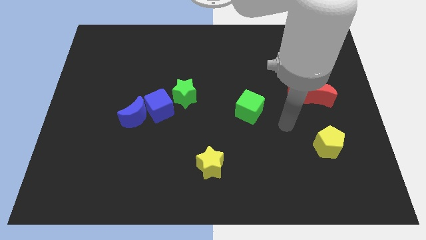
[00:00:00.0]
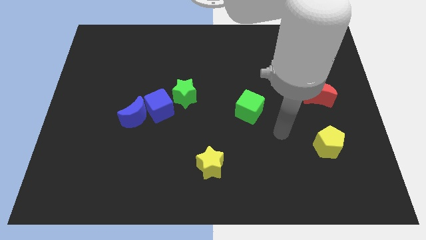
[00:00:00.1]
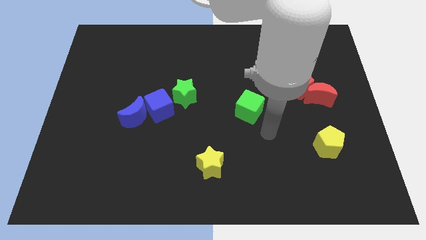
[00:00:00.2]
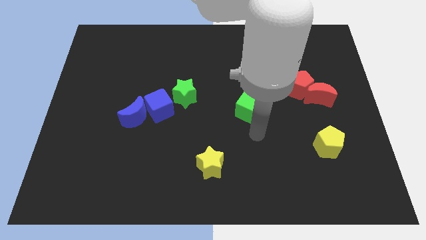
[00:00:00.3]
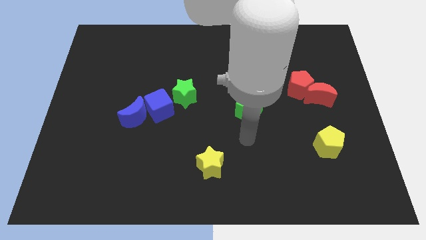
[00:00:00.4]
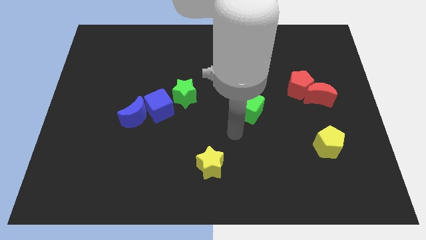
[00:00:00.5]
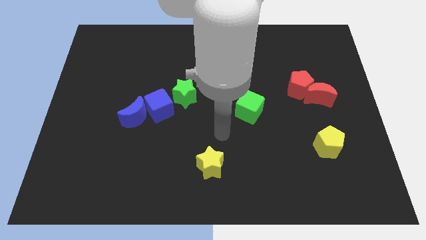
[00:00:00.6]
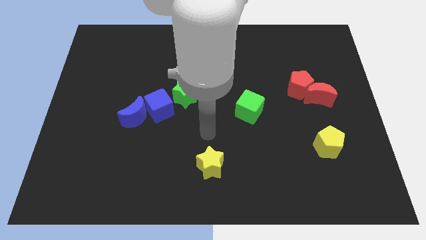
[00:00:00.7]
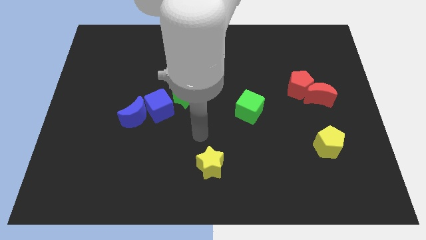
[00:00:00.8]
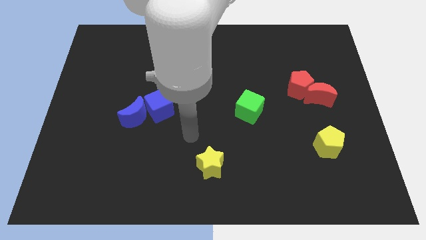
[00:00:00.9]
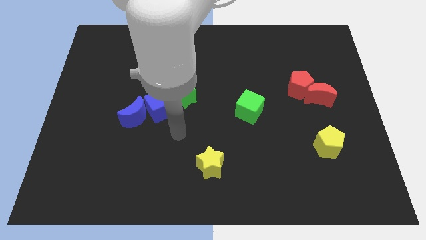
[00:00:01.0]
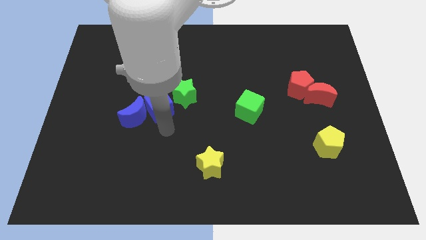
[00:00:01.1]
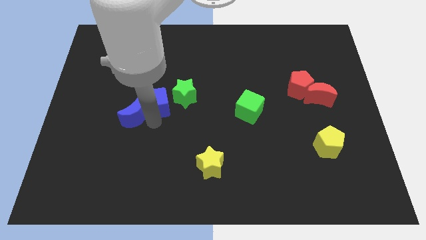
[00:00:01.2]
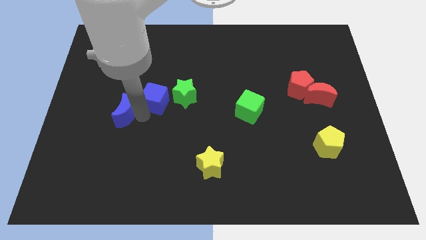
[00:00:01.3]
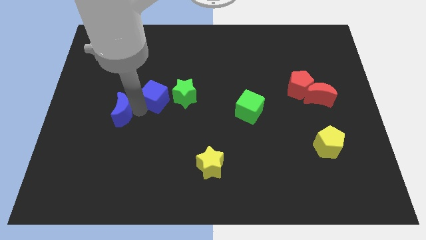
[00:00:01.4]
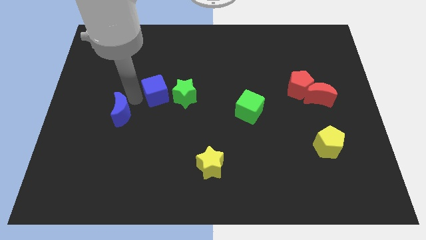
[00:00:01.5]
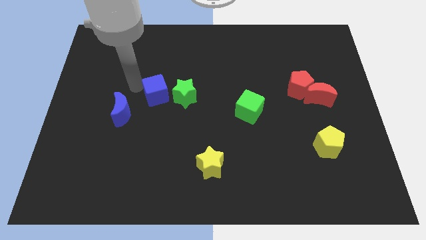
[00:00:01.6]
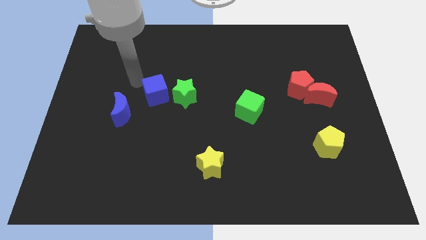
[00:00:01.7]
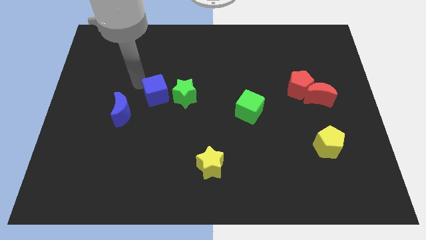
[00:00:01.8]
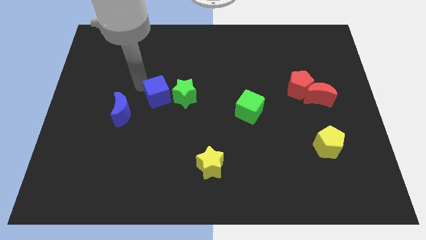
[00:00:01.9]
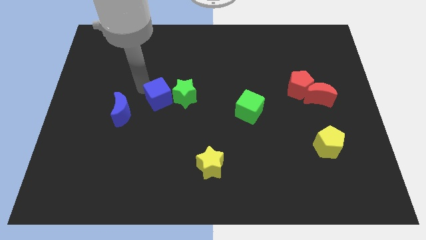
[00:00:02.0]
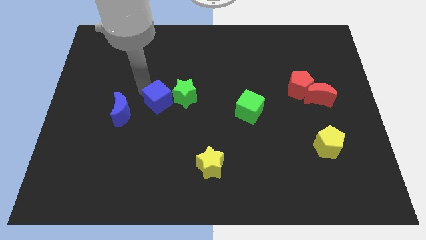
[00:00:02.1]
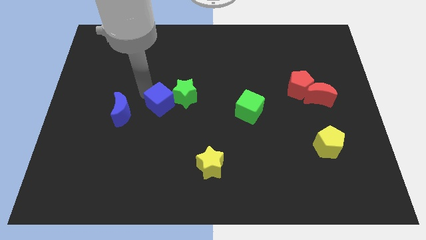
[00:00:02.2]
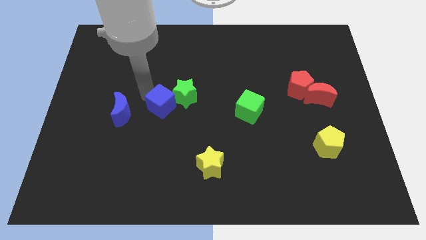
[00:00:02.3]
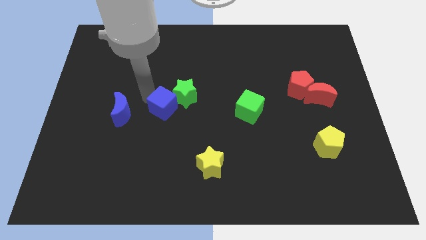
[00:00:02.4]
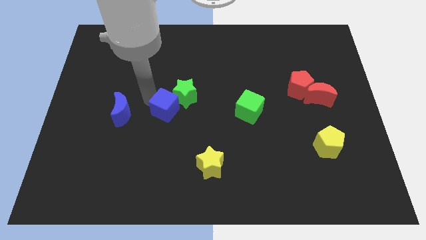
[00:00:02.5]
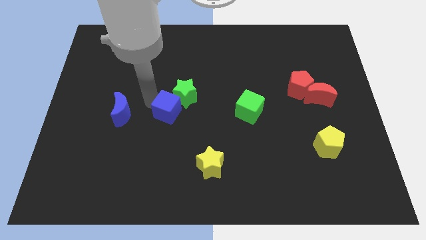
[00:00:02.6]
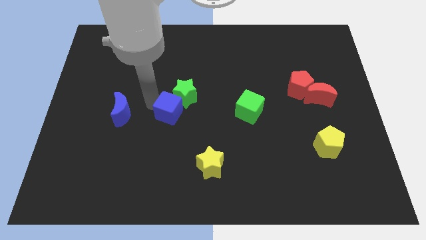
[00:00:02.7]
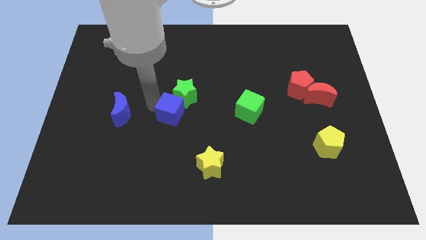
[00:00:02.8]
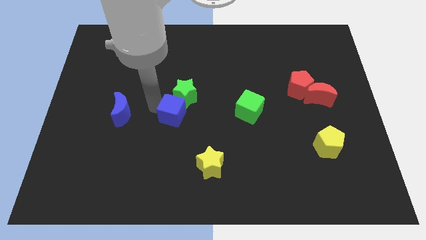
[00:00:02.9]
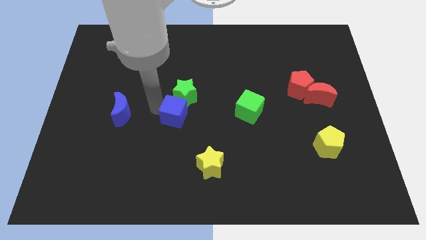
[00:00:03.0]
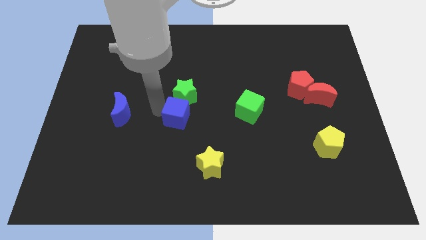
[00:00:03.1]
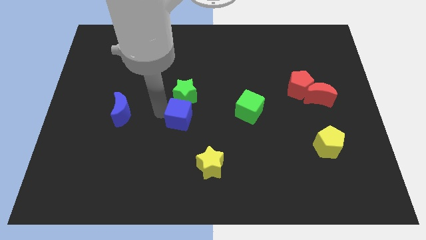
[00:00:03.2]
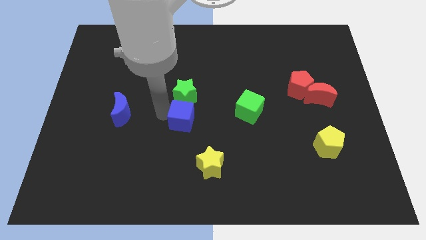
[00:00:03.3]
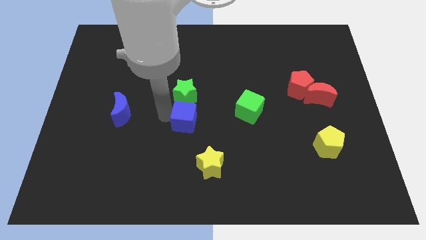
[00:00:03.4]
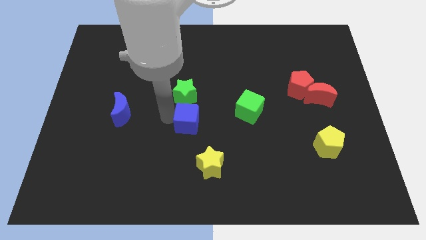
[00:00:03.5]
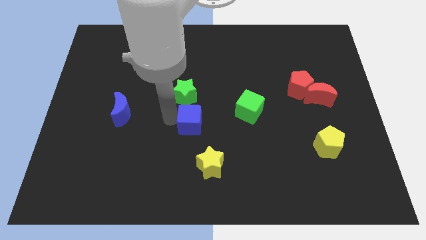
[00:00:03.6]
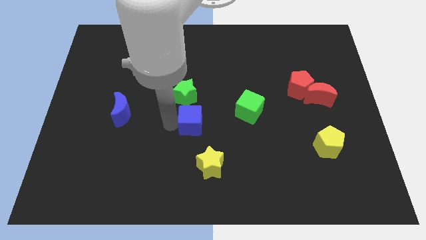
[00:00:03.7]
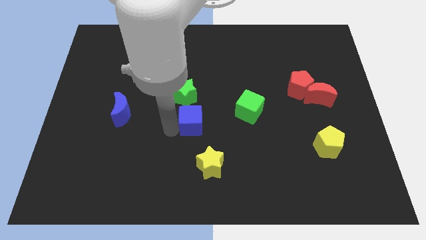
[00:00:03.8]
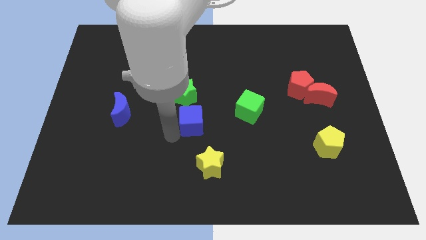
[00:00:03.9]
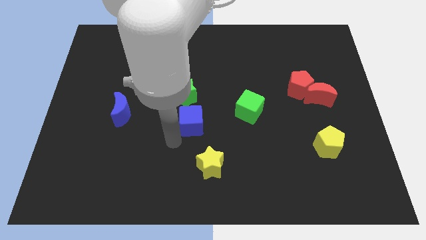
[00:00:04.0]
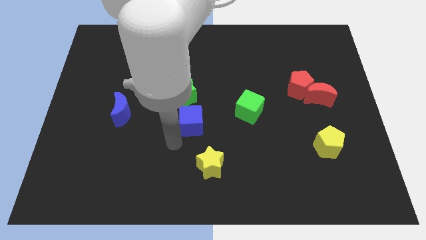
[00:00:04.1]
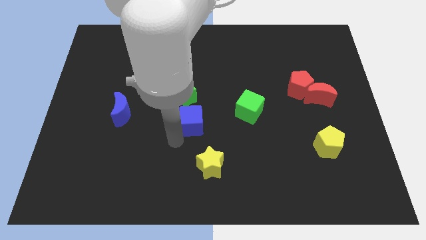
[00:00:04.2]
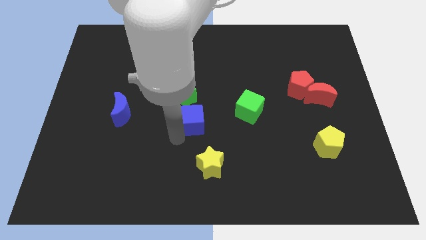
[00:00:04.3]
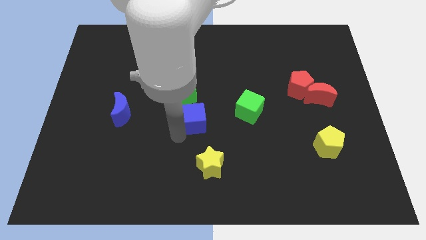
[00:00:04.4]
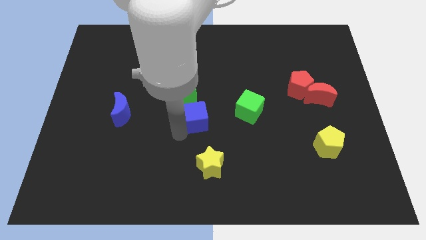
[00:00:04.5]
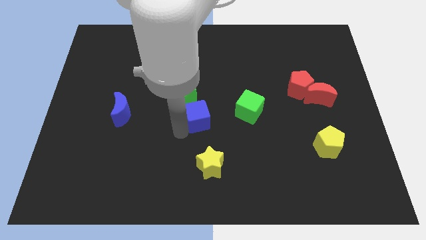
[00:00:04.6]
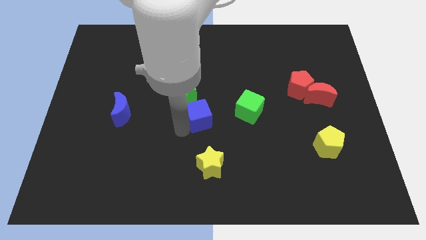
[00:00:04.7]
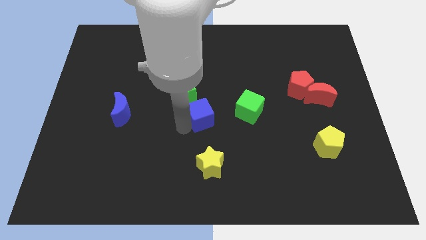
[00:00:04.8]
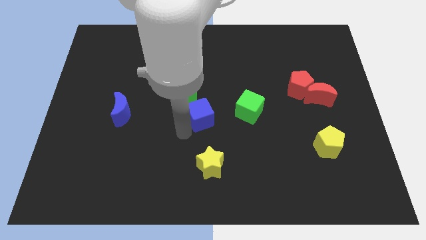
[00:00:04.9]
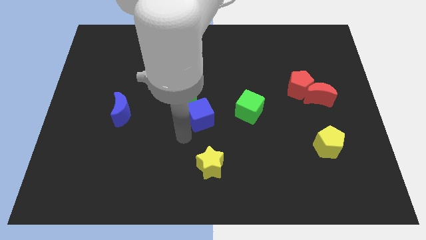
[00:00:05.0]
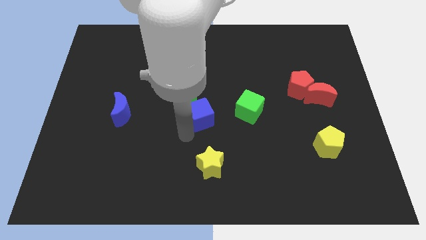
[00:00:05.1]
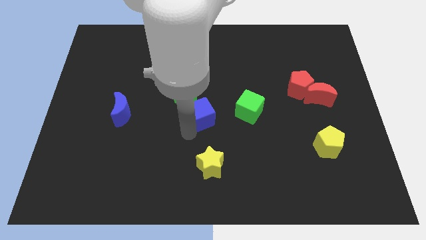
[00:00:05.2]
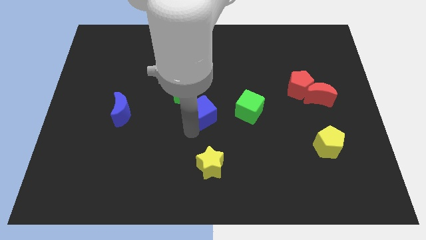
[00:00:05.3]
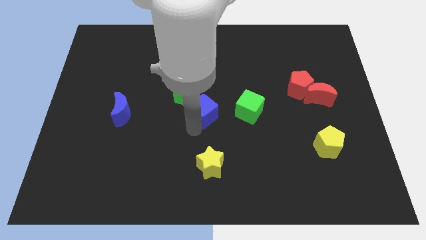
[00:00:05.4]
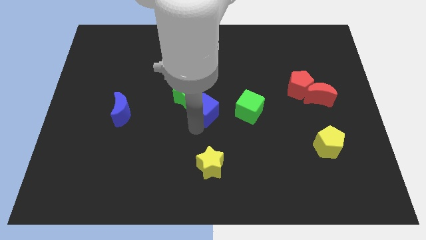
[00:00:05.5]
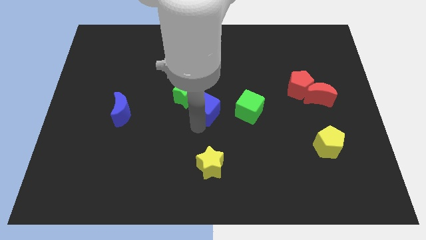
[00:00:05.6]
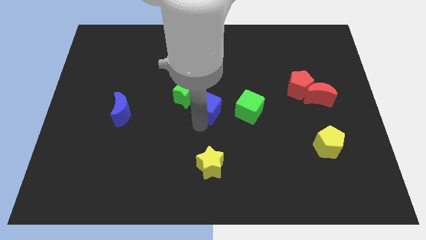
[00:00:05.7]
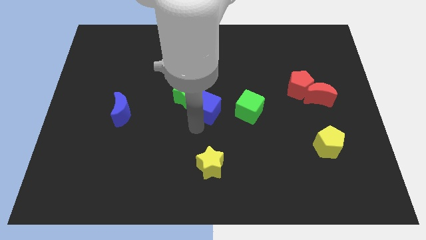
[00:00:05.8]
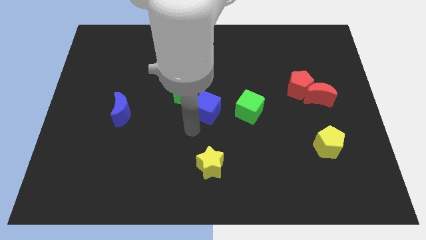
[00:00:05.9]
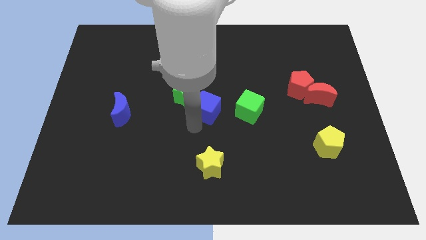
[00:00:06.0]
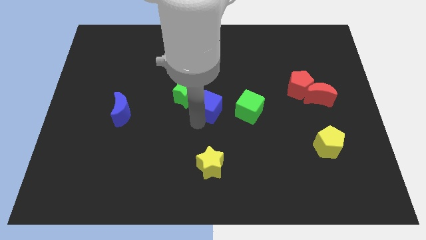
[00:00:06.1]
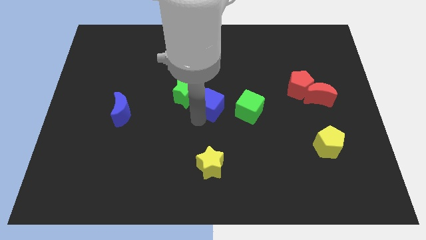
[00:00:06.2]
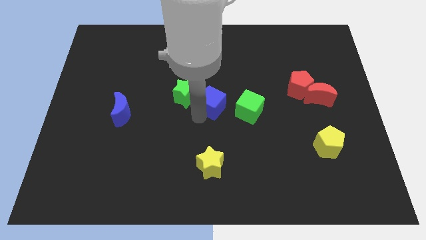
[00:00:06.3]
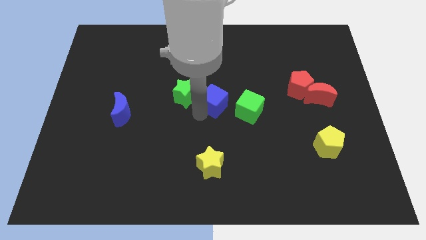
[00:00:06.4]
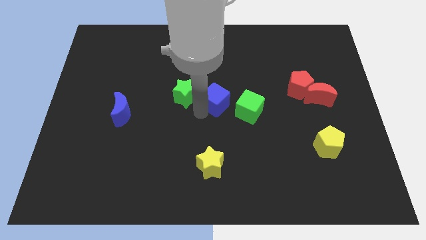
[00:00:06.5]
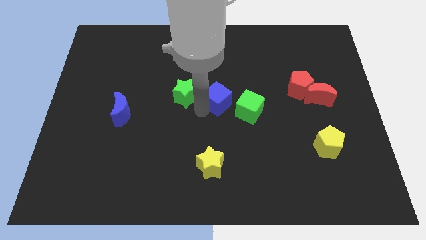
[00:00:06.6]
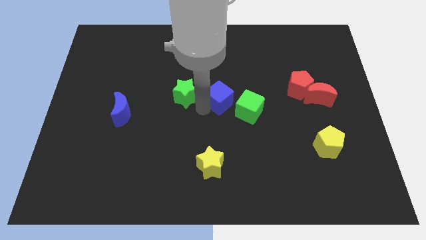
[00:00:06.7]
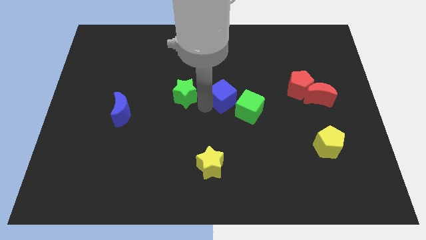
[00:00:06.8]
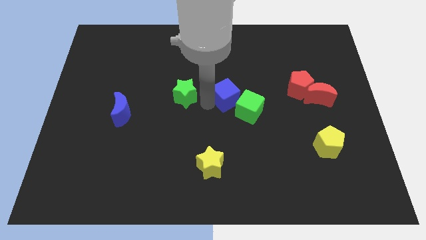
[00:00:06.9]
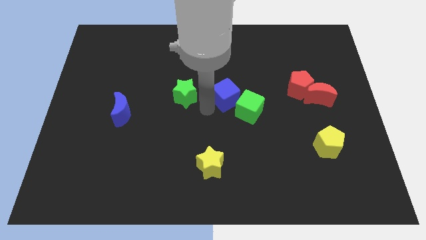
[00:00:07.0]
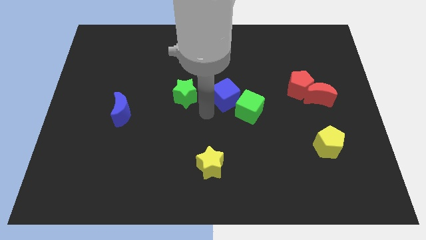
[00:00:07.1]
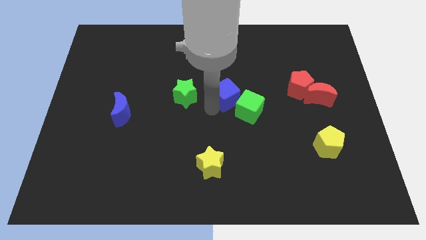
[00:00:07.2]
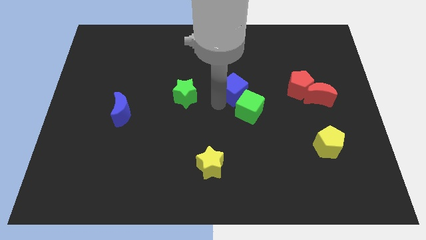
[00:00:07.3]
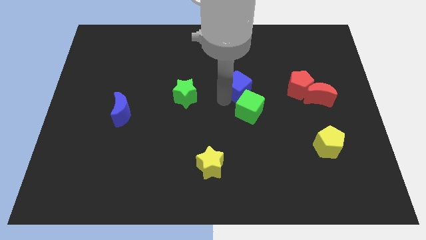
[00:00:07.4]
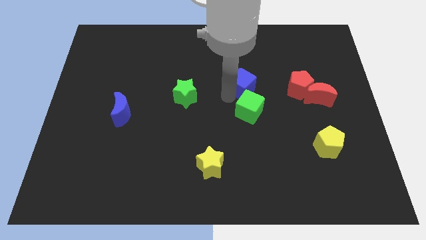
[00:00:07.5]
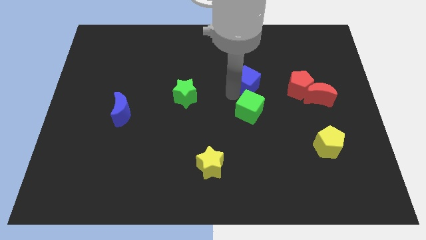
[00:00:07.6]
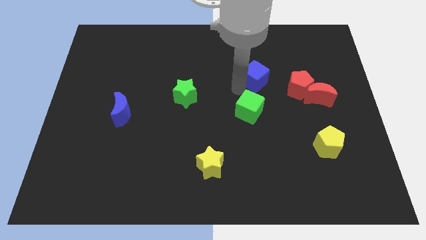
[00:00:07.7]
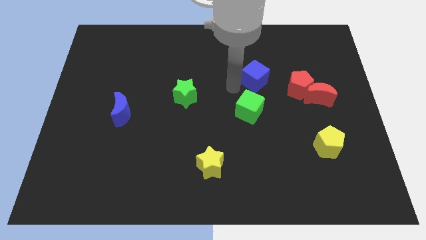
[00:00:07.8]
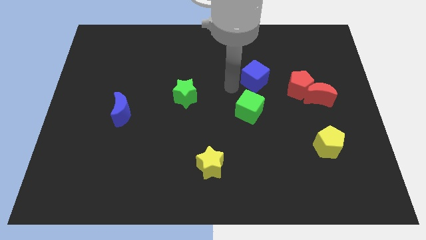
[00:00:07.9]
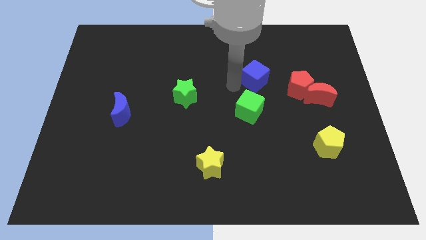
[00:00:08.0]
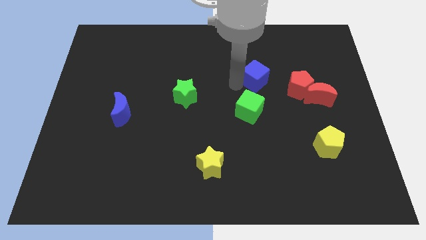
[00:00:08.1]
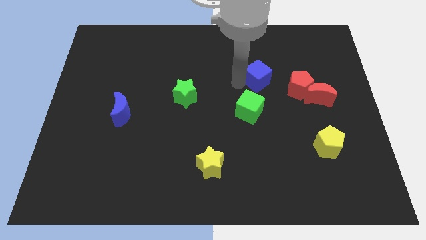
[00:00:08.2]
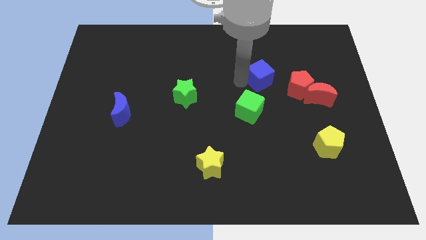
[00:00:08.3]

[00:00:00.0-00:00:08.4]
push the blue cube to the top left of the red pentagon
